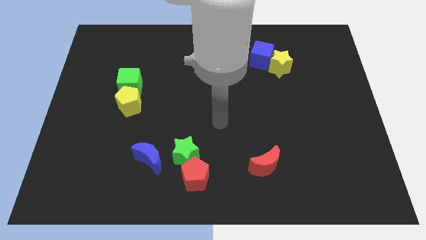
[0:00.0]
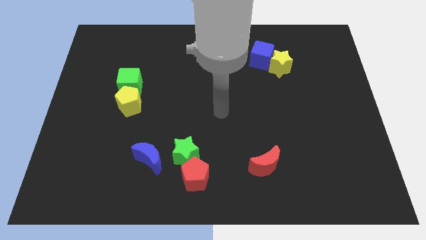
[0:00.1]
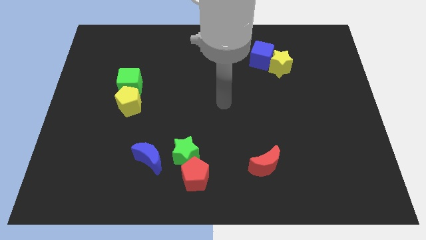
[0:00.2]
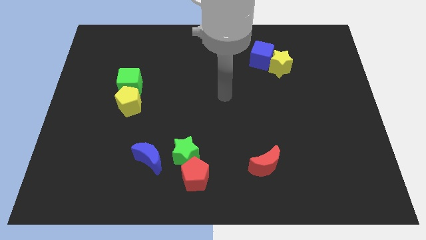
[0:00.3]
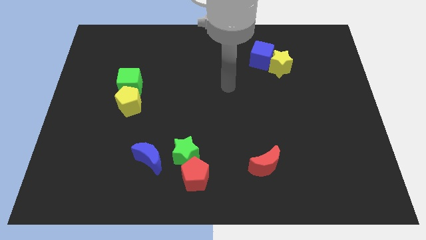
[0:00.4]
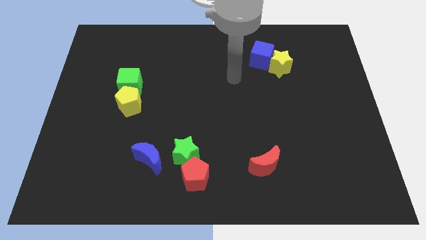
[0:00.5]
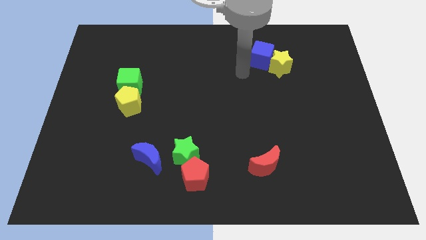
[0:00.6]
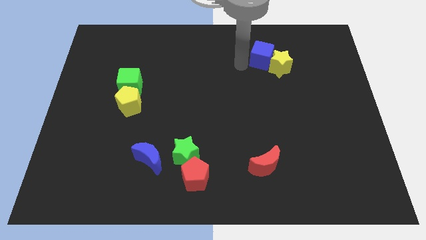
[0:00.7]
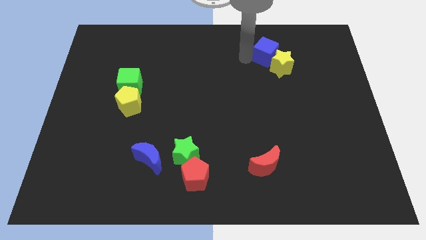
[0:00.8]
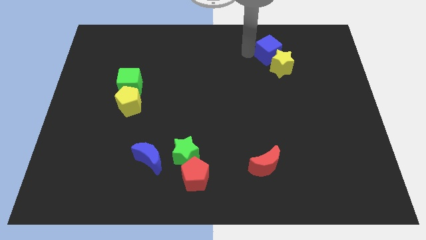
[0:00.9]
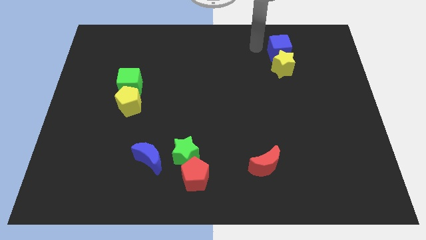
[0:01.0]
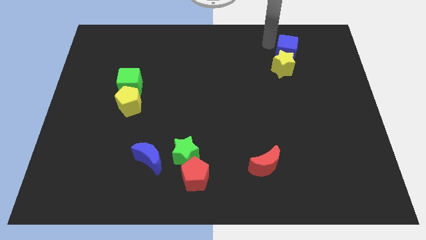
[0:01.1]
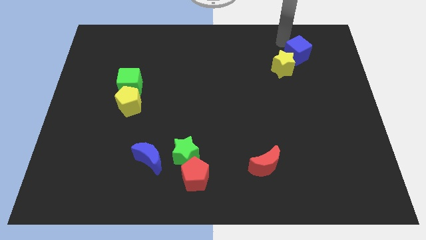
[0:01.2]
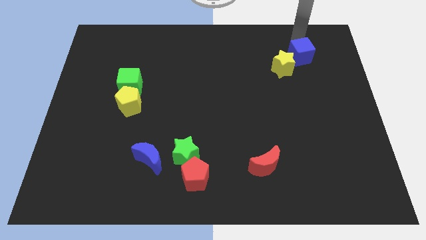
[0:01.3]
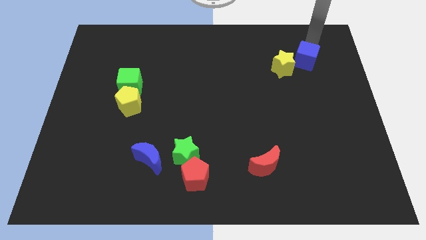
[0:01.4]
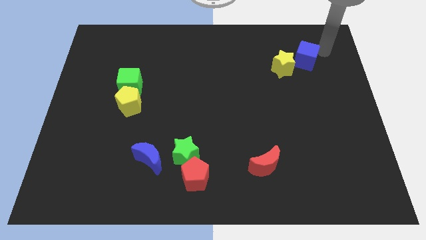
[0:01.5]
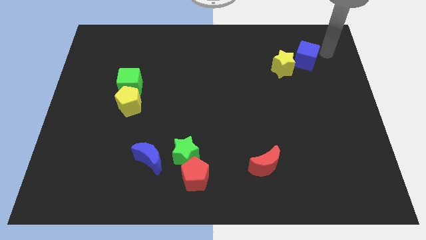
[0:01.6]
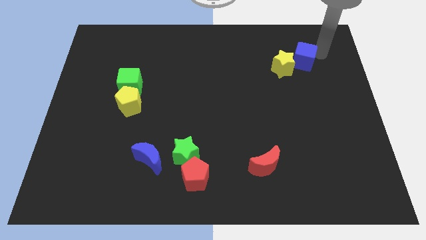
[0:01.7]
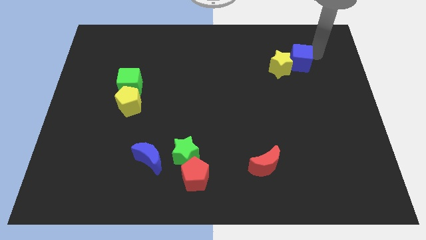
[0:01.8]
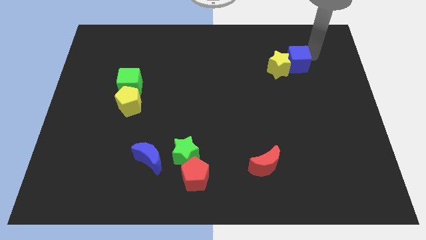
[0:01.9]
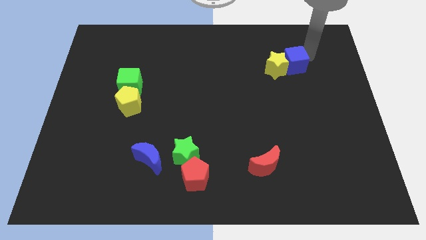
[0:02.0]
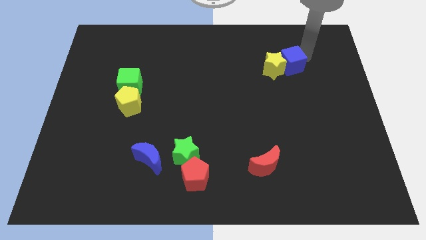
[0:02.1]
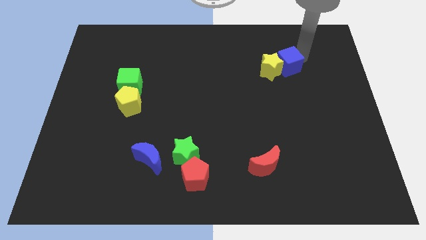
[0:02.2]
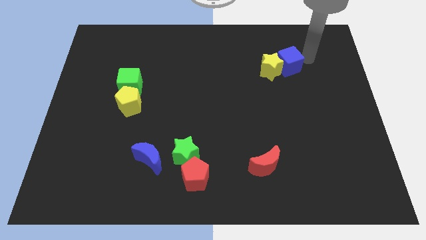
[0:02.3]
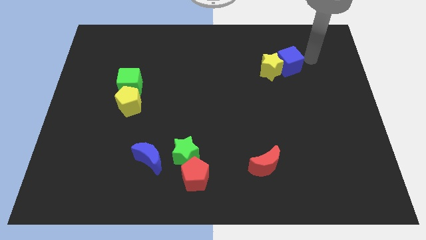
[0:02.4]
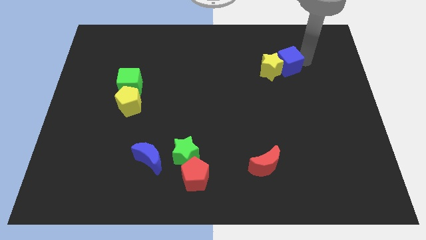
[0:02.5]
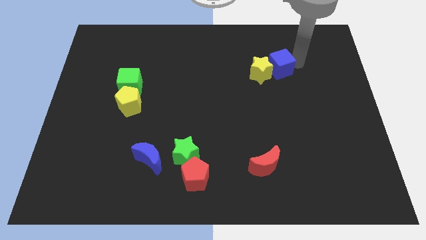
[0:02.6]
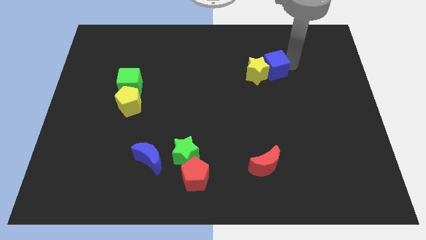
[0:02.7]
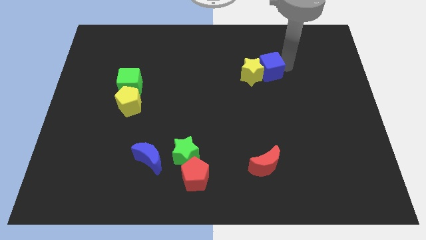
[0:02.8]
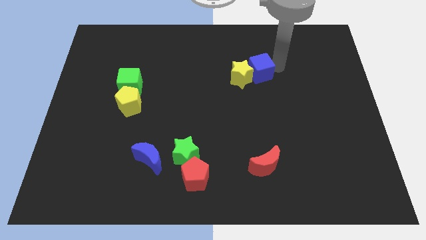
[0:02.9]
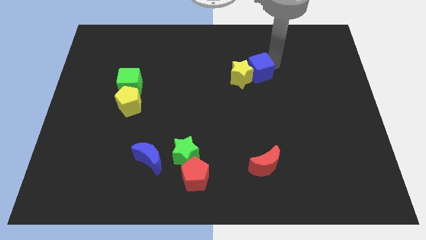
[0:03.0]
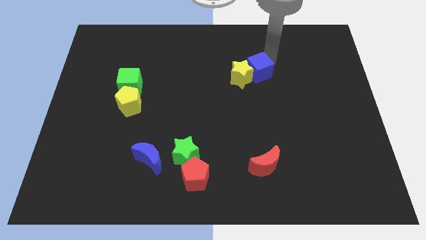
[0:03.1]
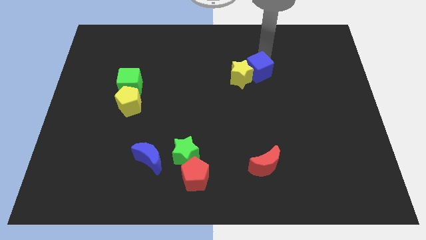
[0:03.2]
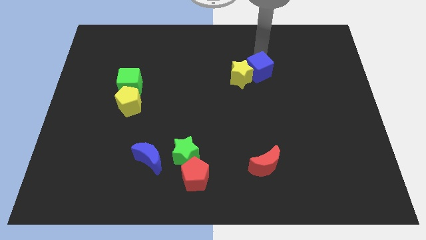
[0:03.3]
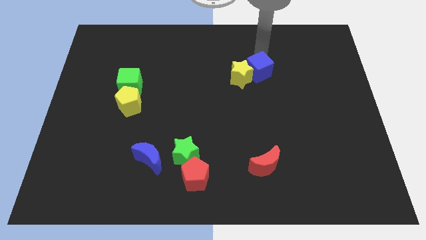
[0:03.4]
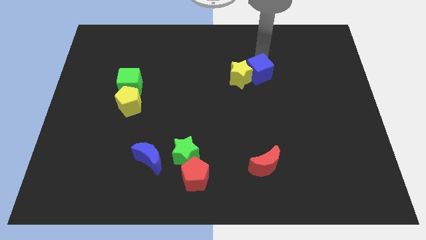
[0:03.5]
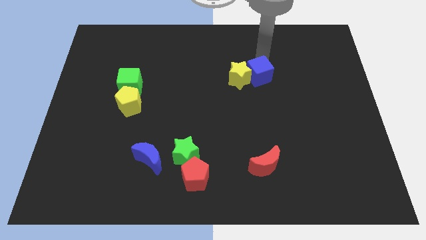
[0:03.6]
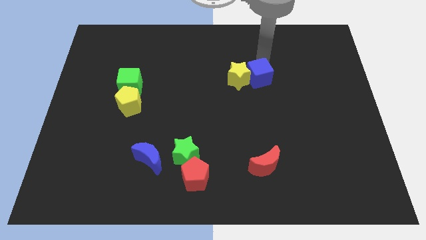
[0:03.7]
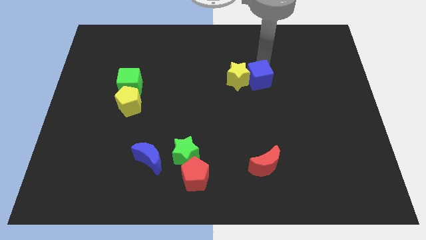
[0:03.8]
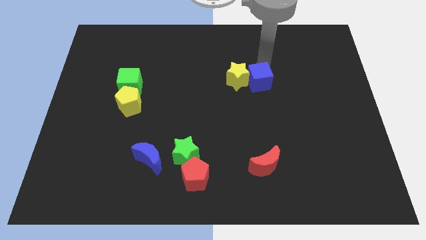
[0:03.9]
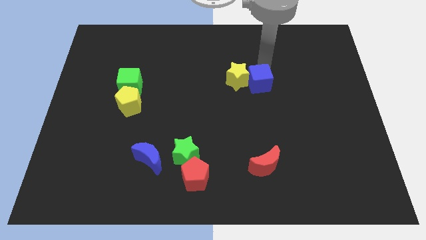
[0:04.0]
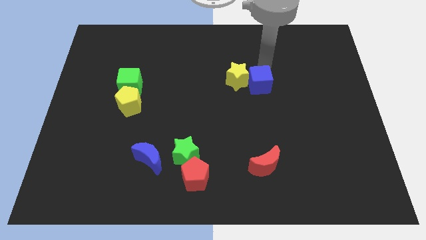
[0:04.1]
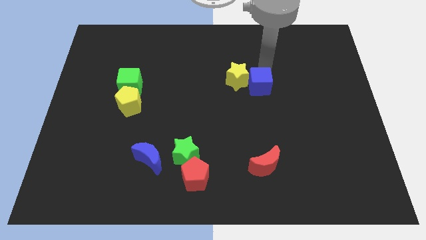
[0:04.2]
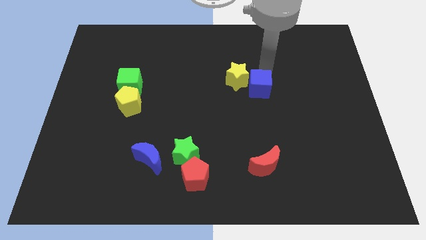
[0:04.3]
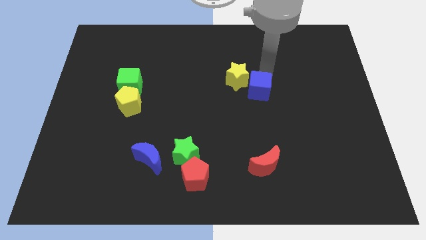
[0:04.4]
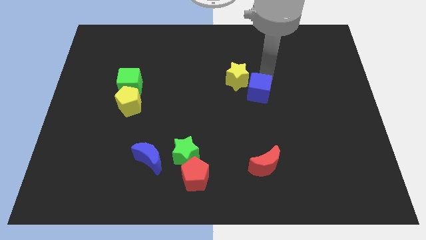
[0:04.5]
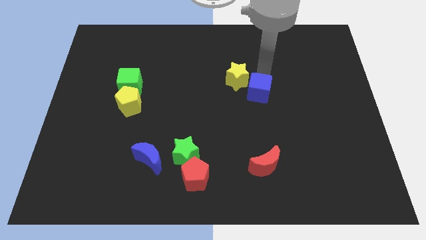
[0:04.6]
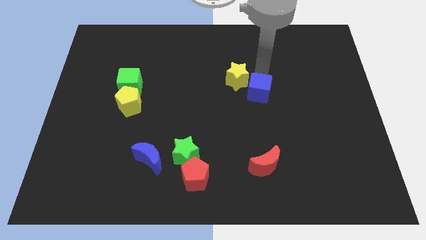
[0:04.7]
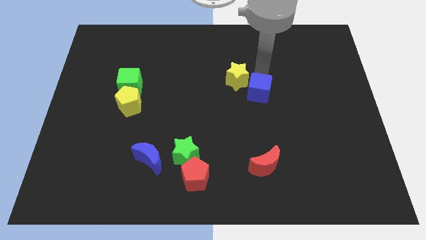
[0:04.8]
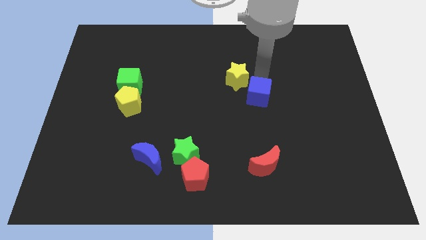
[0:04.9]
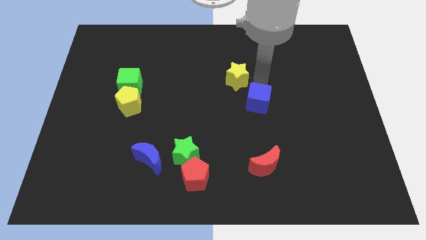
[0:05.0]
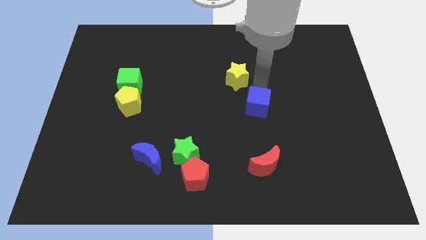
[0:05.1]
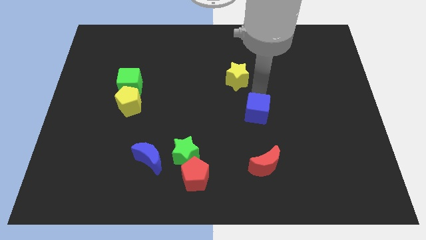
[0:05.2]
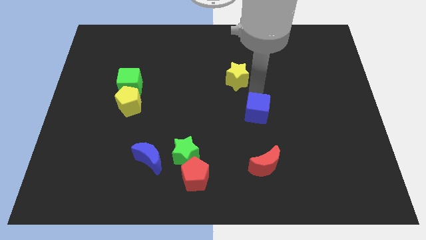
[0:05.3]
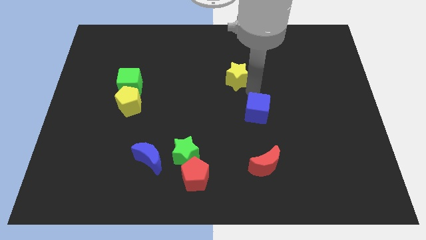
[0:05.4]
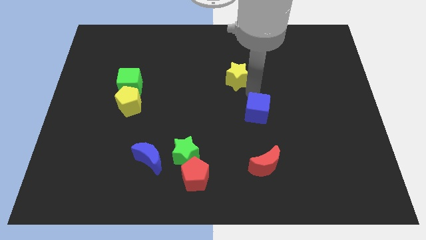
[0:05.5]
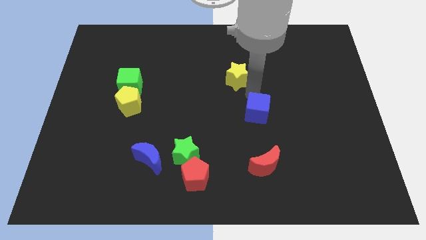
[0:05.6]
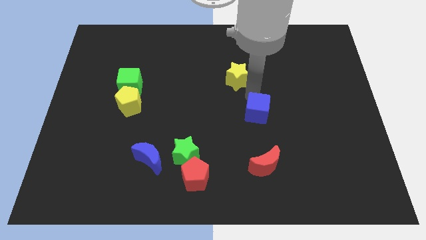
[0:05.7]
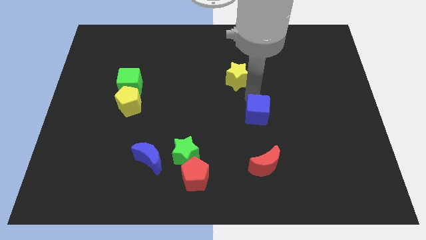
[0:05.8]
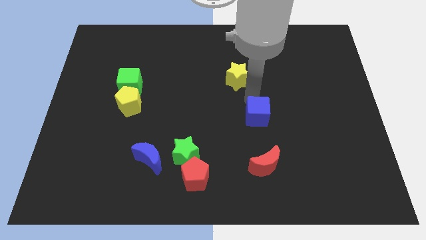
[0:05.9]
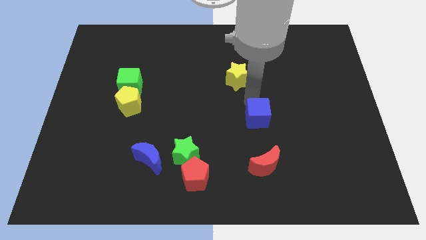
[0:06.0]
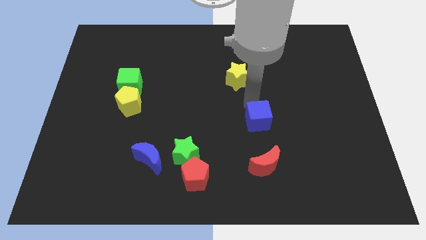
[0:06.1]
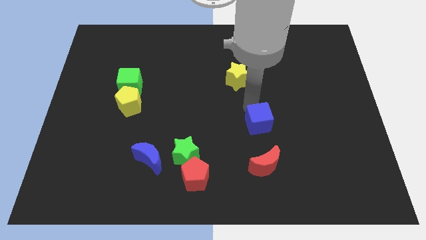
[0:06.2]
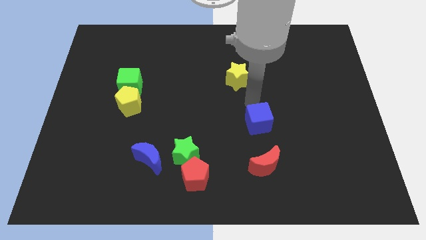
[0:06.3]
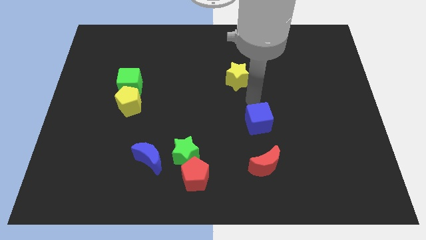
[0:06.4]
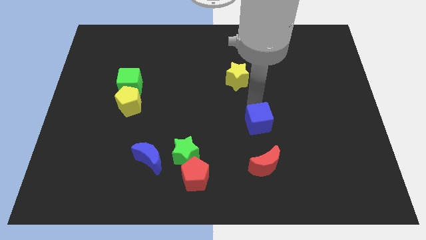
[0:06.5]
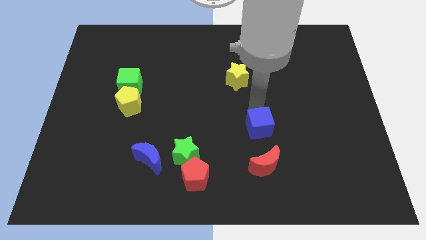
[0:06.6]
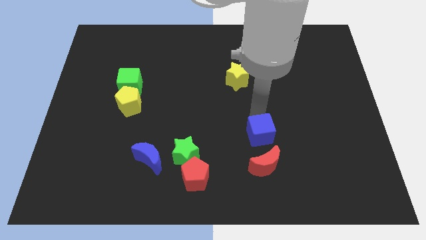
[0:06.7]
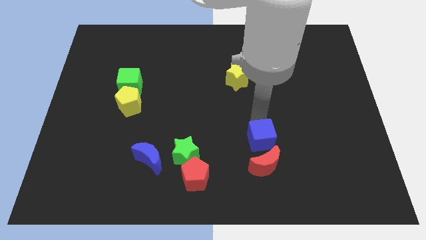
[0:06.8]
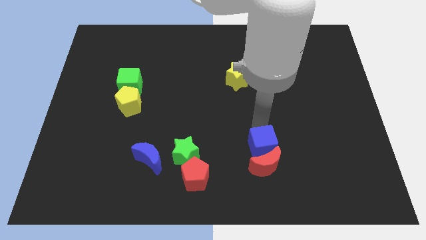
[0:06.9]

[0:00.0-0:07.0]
move the blue cube to the red moon
